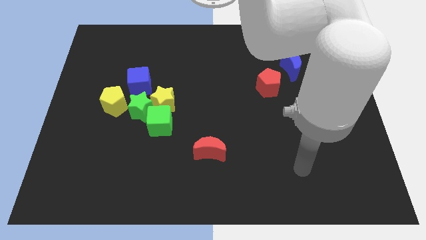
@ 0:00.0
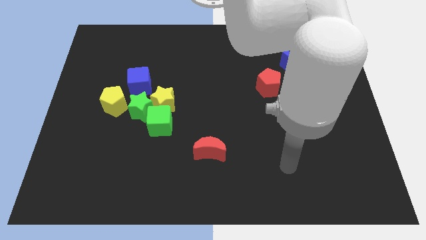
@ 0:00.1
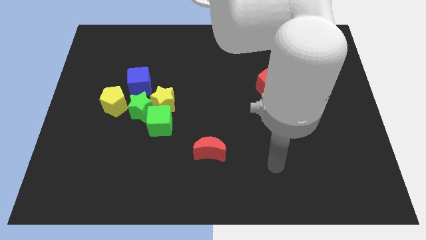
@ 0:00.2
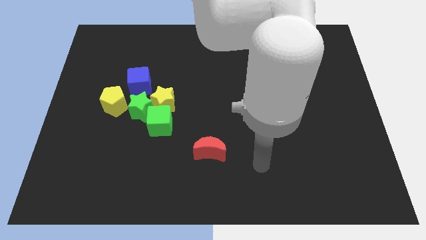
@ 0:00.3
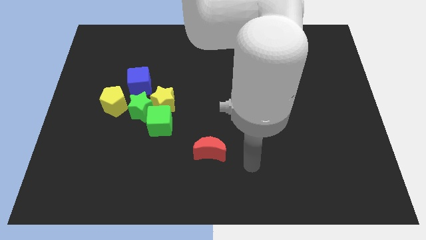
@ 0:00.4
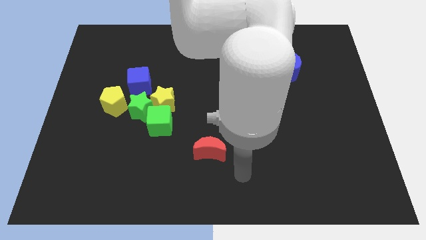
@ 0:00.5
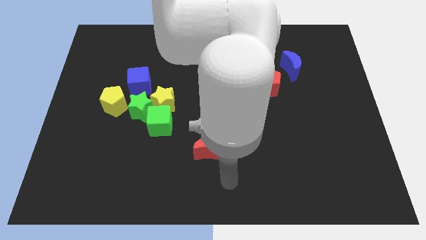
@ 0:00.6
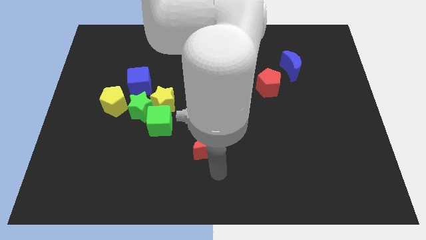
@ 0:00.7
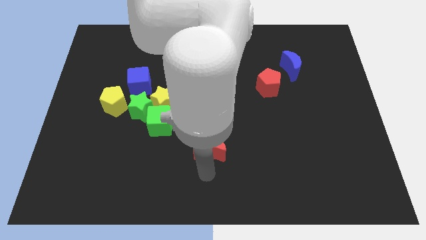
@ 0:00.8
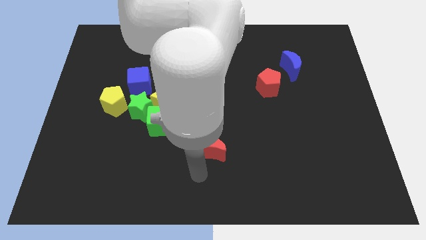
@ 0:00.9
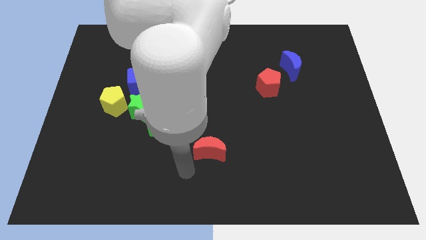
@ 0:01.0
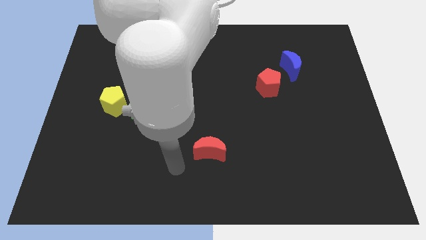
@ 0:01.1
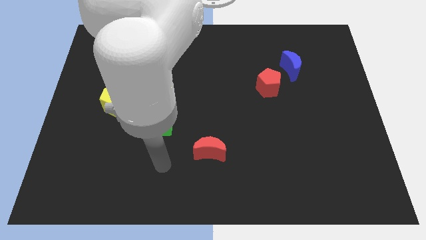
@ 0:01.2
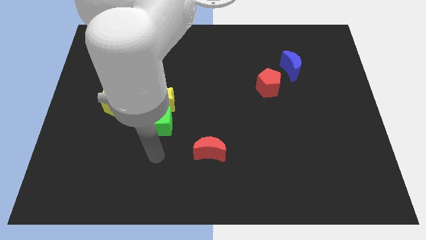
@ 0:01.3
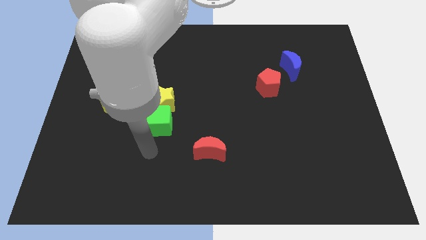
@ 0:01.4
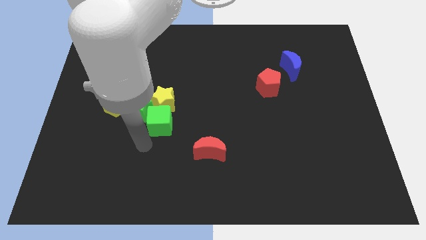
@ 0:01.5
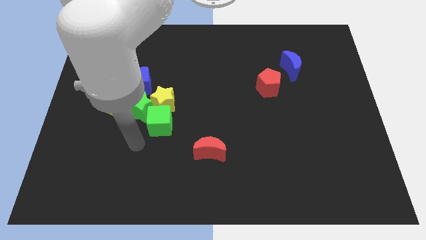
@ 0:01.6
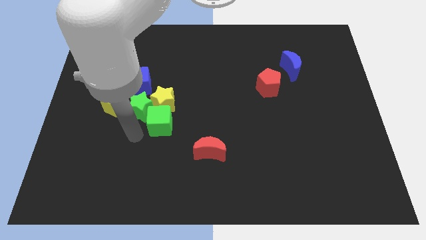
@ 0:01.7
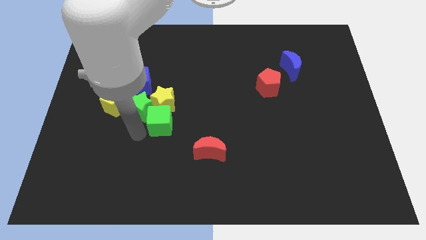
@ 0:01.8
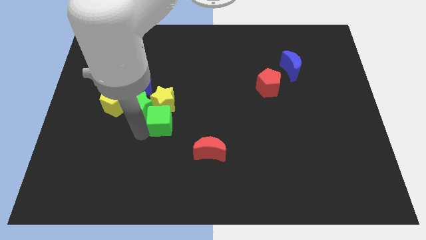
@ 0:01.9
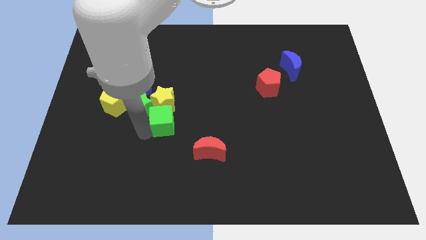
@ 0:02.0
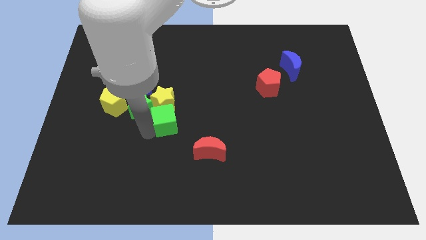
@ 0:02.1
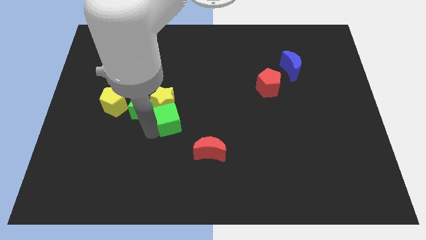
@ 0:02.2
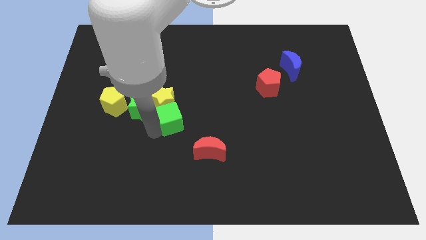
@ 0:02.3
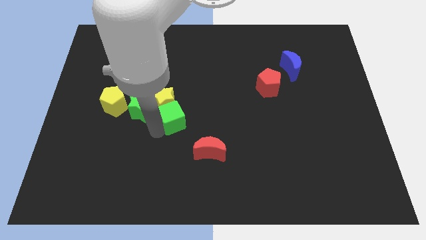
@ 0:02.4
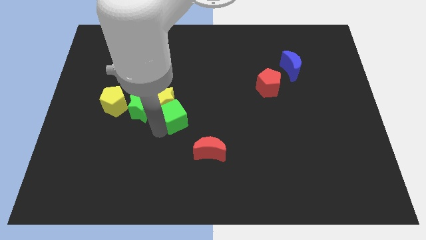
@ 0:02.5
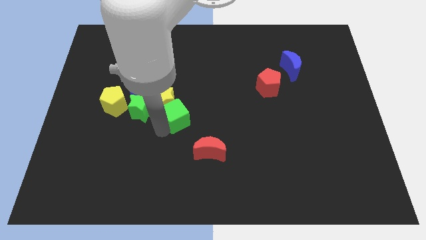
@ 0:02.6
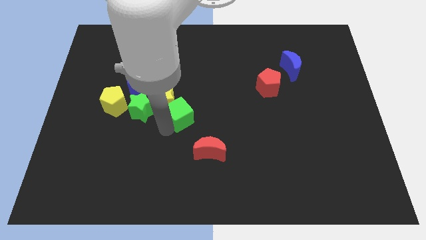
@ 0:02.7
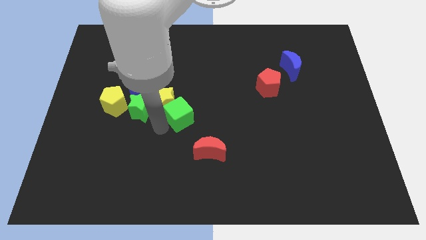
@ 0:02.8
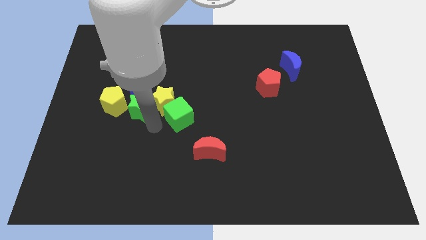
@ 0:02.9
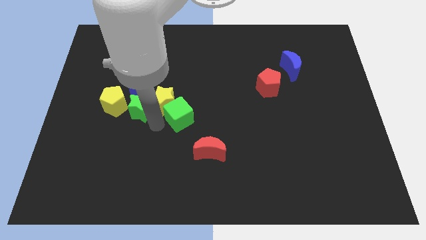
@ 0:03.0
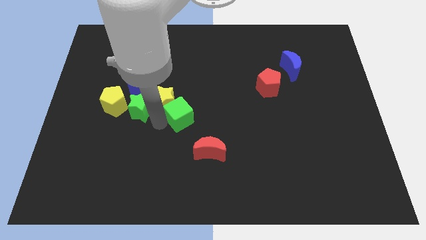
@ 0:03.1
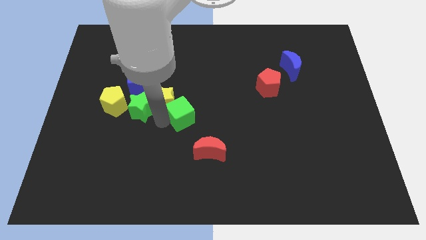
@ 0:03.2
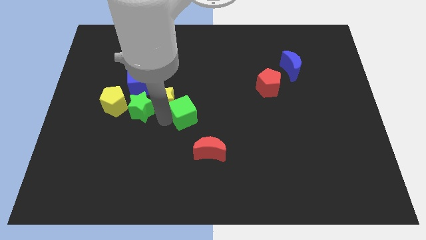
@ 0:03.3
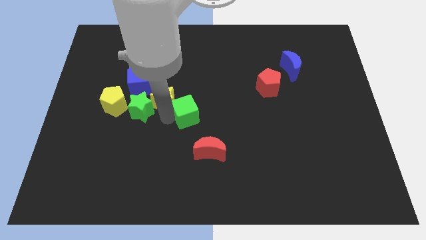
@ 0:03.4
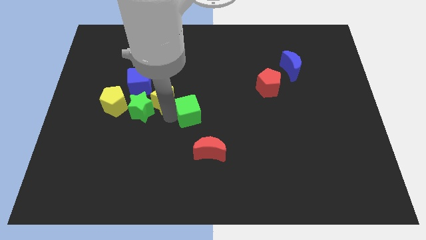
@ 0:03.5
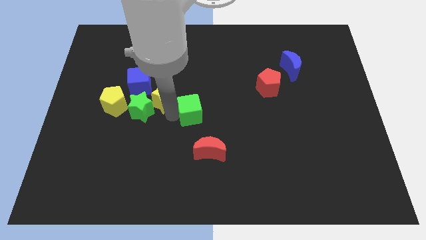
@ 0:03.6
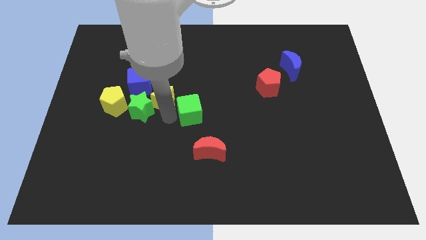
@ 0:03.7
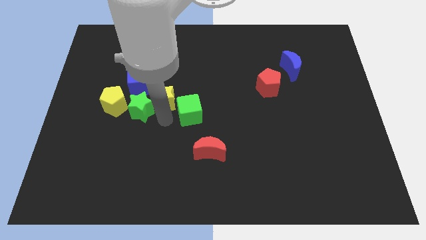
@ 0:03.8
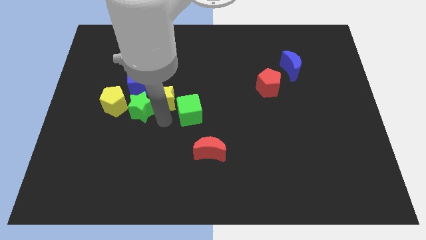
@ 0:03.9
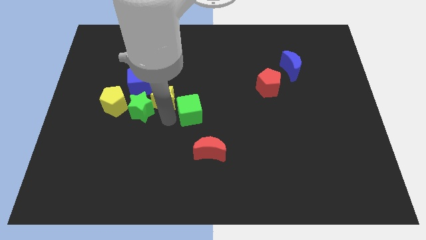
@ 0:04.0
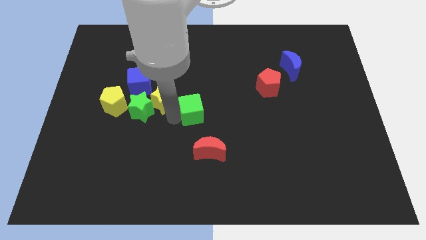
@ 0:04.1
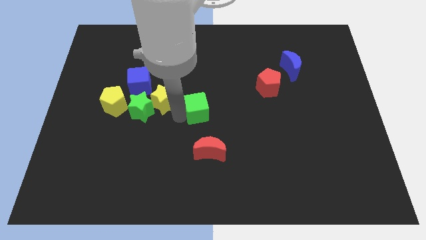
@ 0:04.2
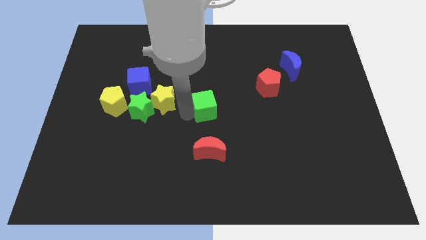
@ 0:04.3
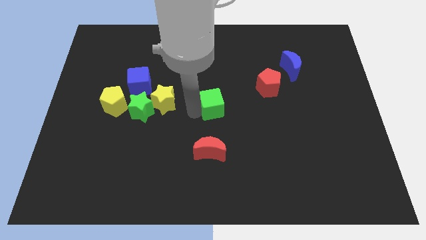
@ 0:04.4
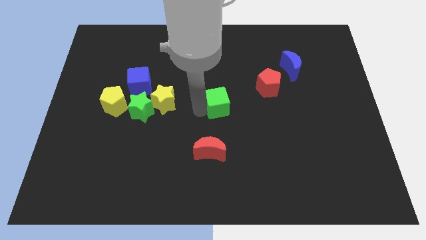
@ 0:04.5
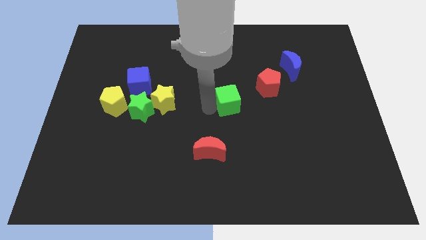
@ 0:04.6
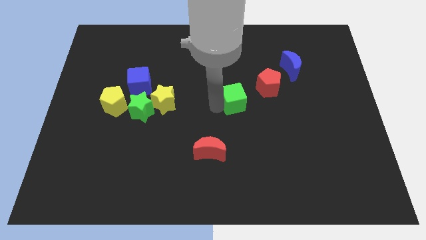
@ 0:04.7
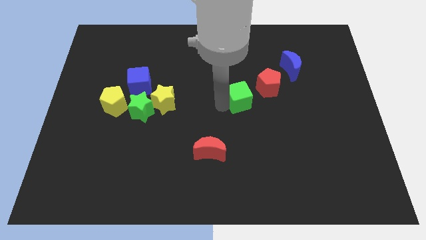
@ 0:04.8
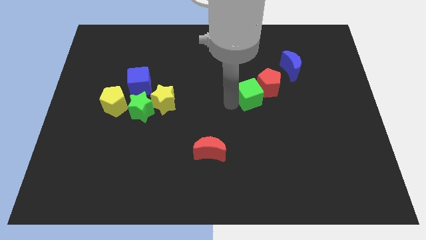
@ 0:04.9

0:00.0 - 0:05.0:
slide the green cube to the red pentagon

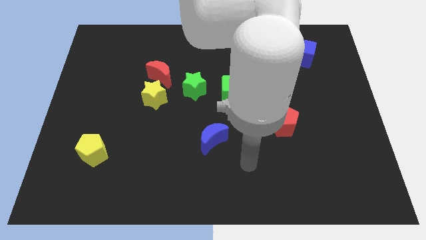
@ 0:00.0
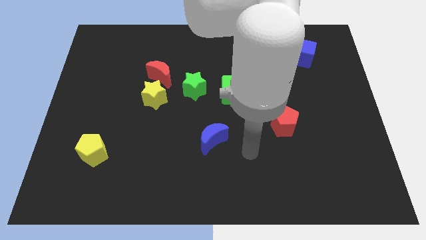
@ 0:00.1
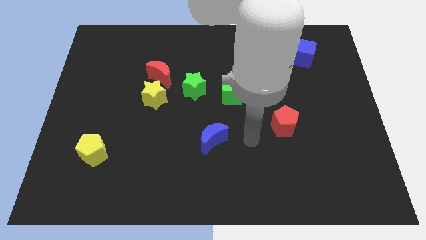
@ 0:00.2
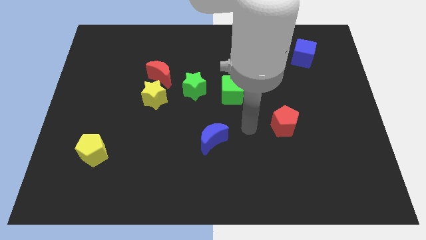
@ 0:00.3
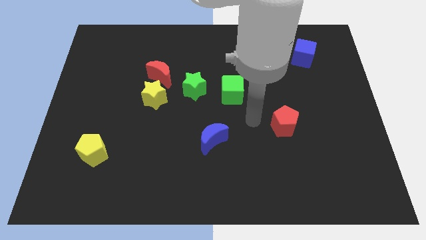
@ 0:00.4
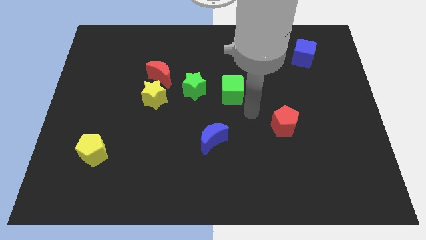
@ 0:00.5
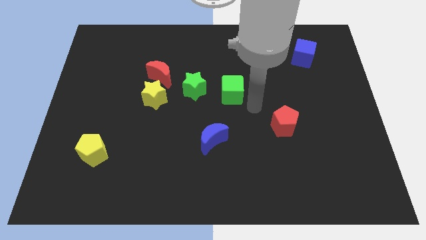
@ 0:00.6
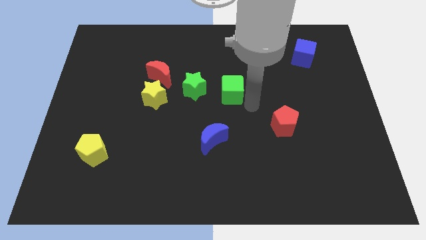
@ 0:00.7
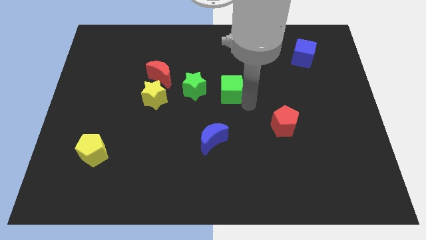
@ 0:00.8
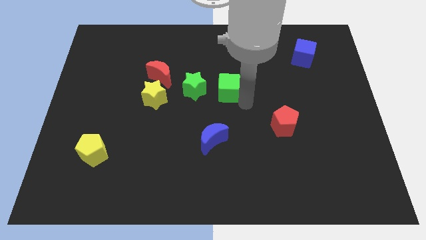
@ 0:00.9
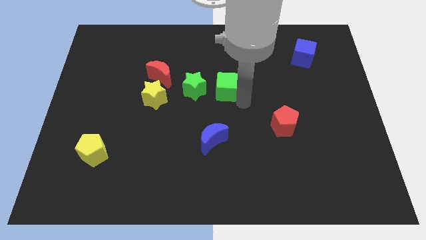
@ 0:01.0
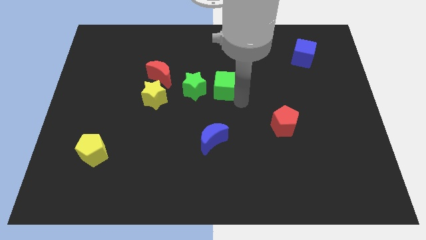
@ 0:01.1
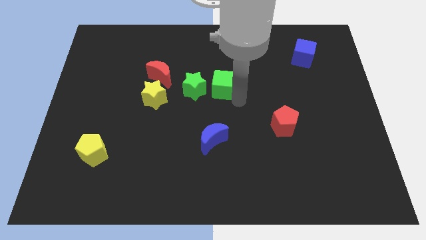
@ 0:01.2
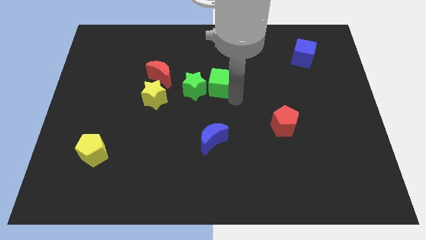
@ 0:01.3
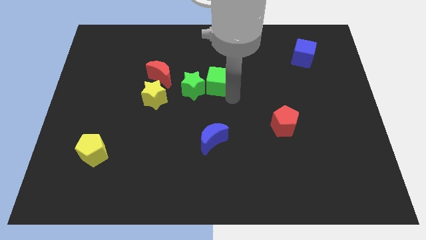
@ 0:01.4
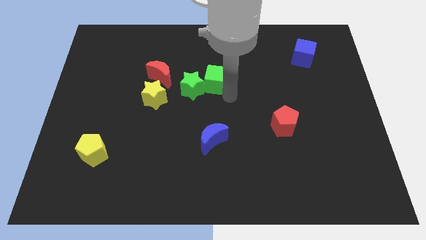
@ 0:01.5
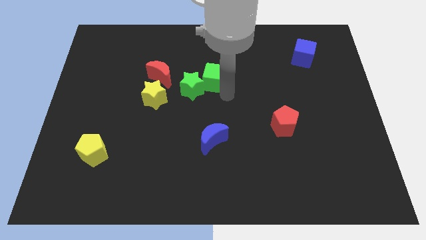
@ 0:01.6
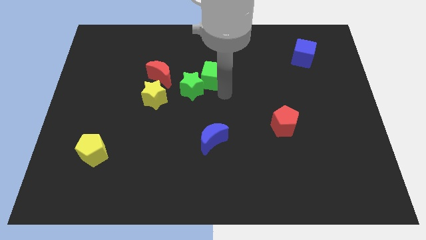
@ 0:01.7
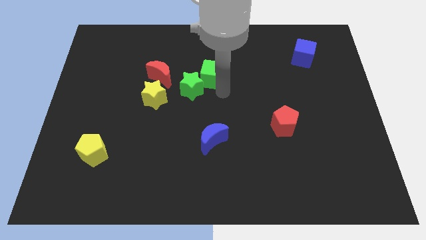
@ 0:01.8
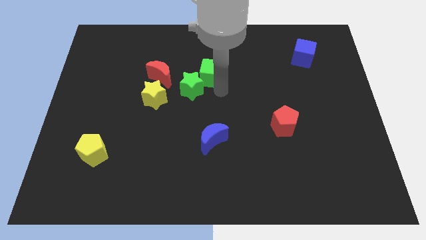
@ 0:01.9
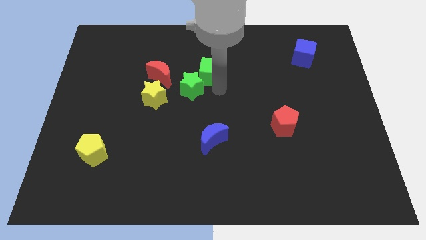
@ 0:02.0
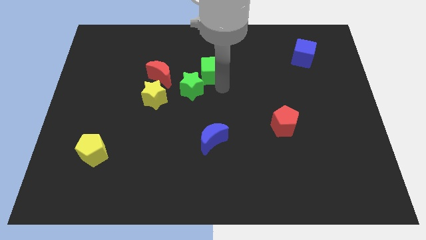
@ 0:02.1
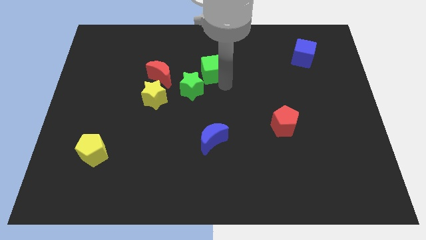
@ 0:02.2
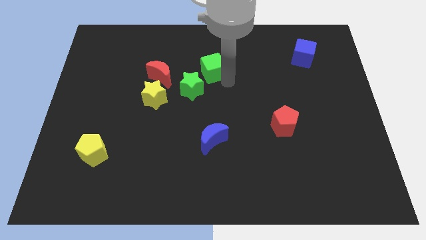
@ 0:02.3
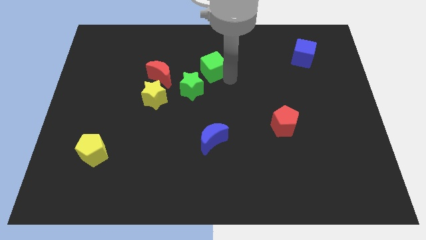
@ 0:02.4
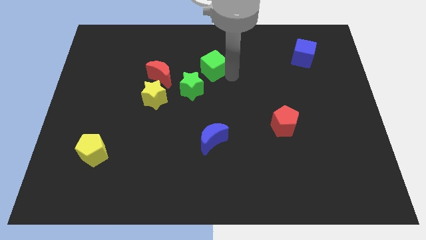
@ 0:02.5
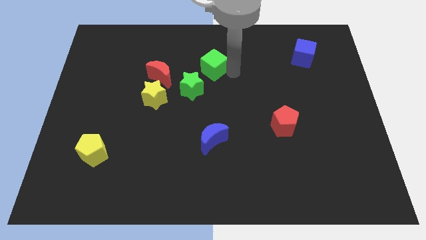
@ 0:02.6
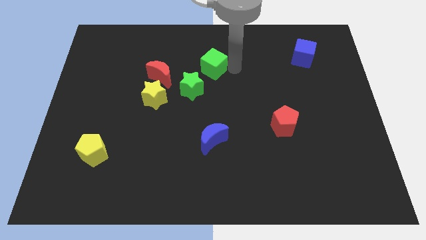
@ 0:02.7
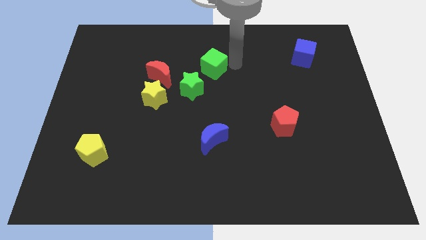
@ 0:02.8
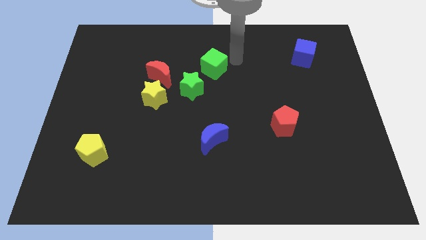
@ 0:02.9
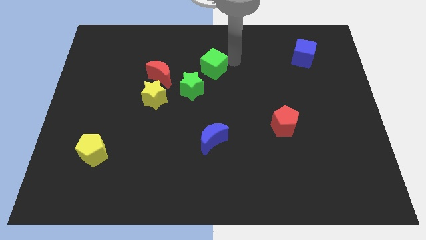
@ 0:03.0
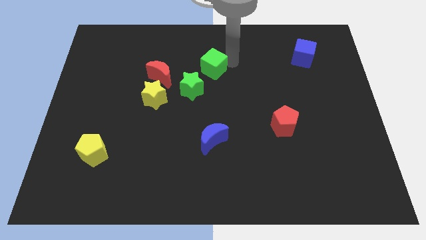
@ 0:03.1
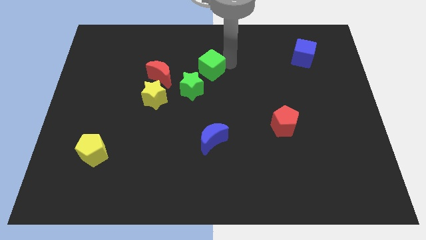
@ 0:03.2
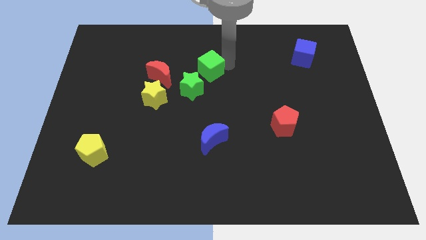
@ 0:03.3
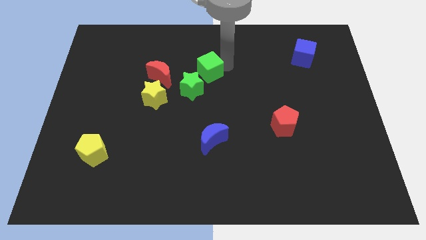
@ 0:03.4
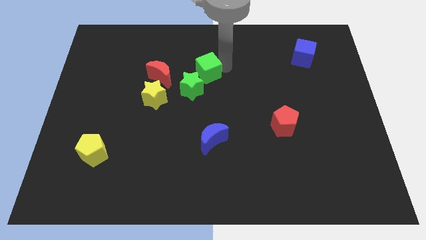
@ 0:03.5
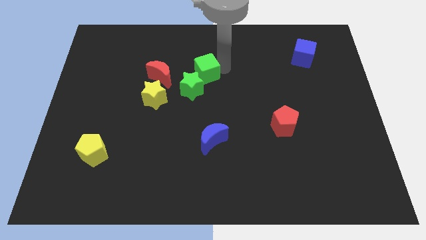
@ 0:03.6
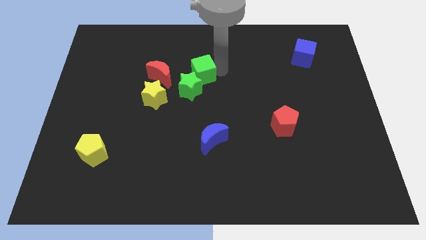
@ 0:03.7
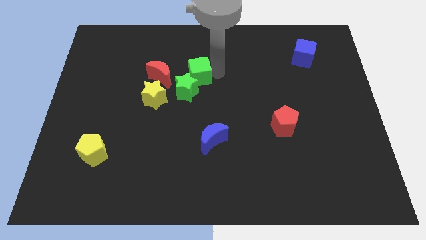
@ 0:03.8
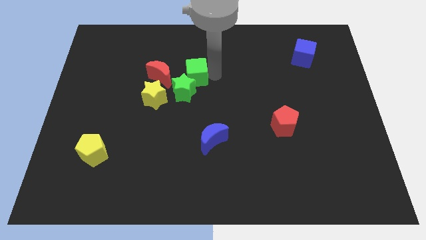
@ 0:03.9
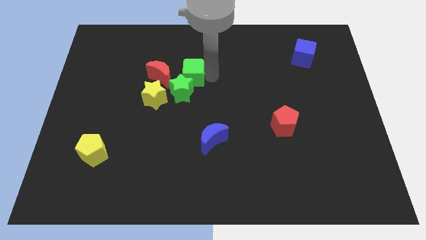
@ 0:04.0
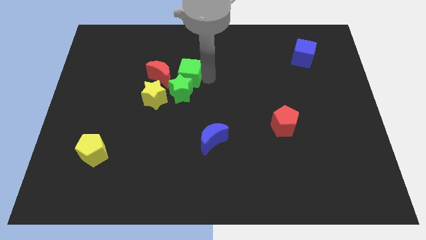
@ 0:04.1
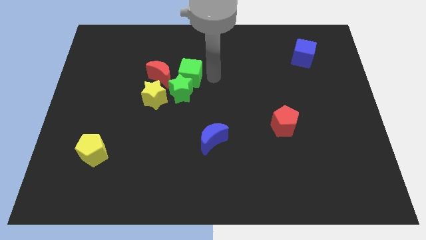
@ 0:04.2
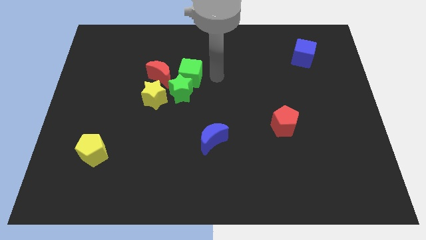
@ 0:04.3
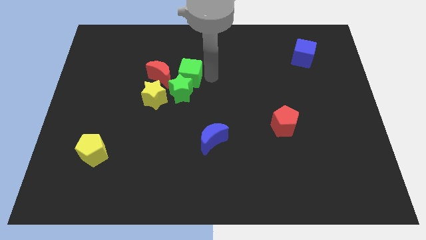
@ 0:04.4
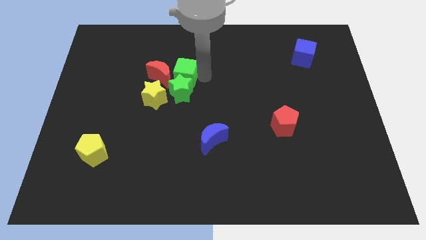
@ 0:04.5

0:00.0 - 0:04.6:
put the green cube towards the red moon
